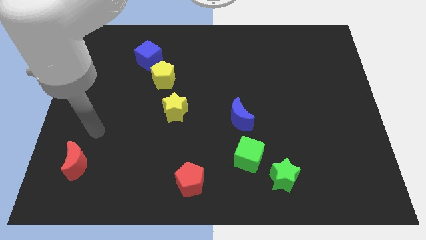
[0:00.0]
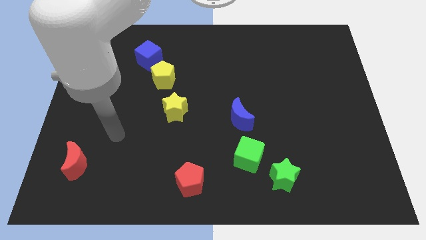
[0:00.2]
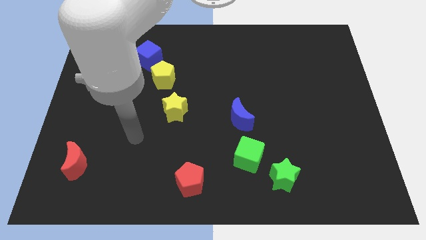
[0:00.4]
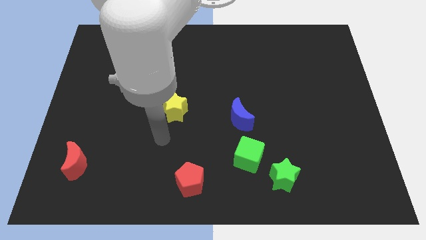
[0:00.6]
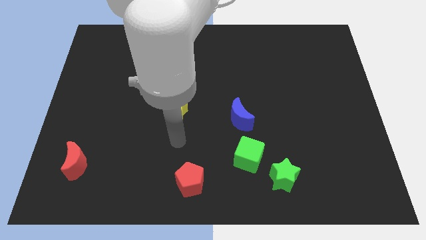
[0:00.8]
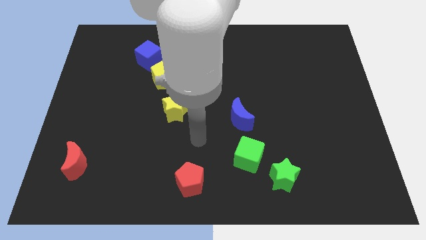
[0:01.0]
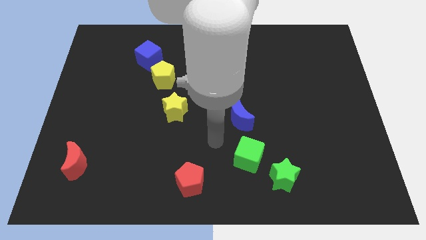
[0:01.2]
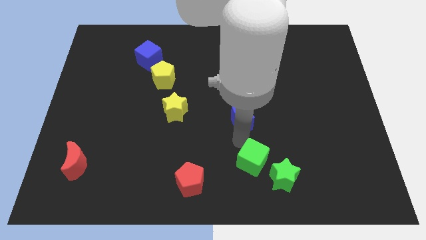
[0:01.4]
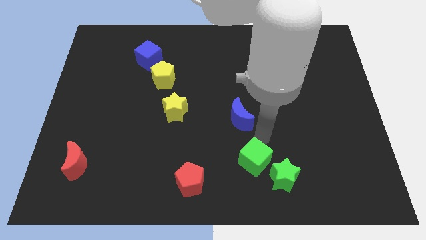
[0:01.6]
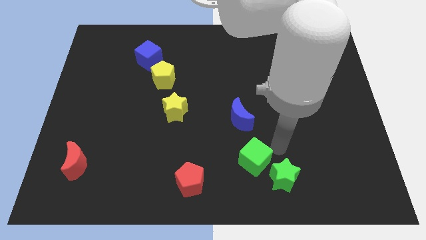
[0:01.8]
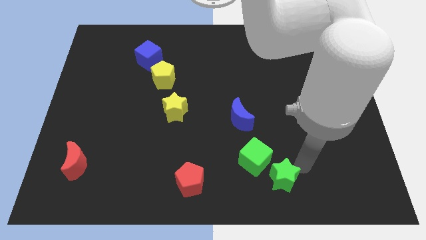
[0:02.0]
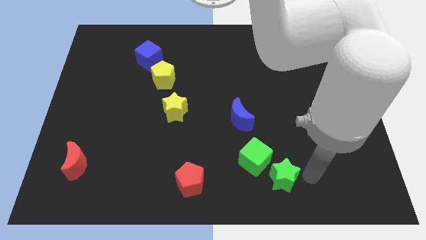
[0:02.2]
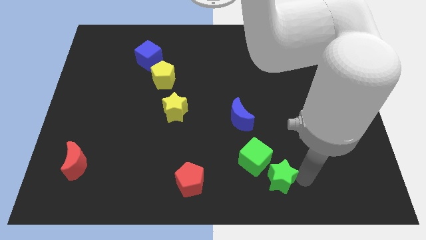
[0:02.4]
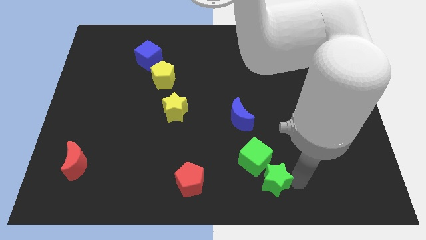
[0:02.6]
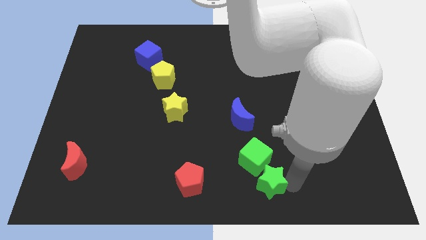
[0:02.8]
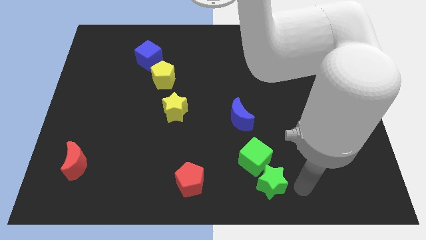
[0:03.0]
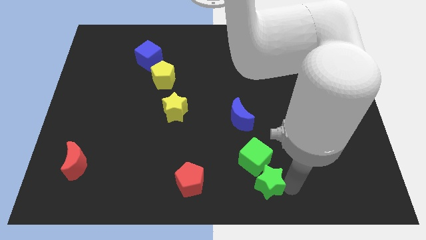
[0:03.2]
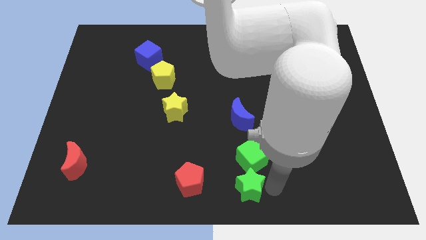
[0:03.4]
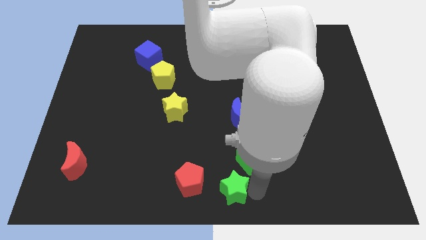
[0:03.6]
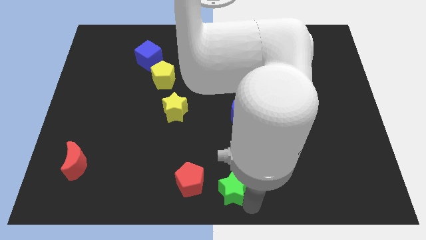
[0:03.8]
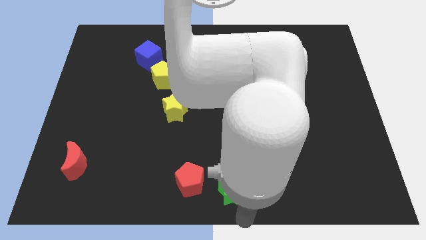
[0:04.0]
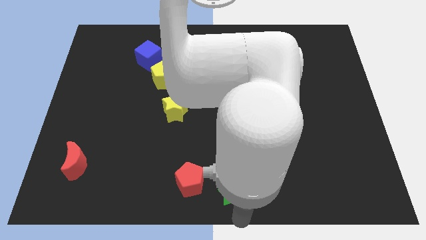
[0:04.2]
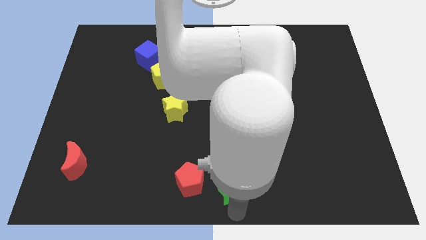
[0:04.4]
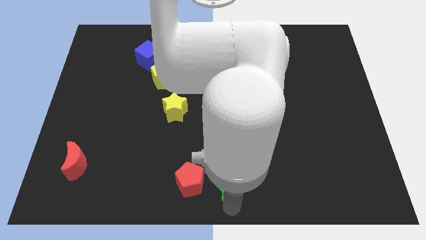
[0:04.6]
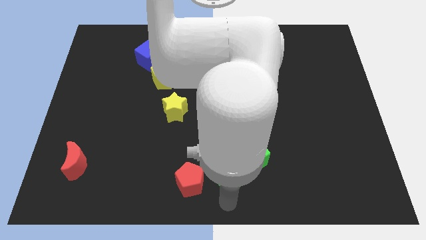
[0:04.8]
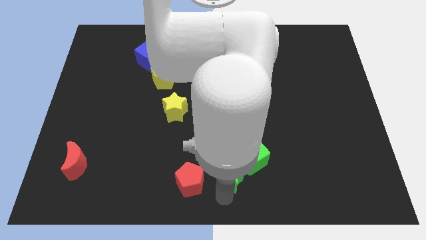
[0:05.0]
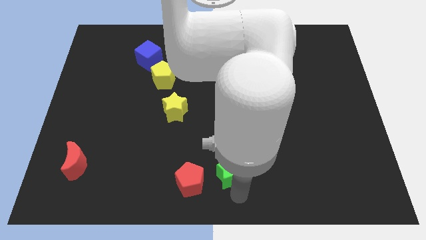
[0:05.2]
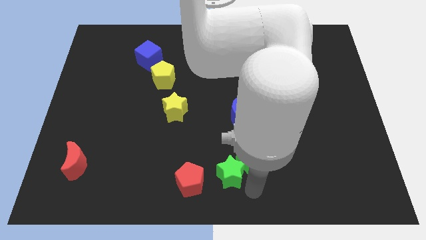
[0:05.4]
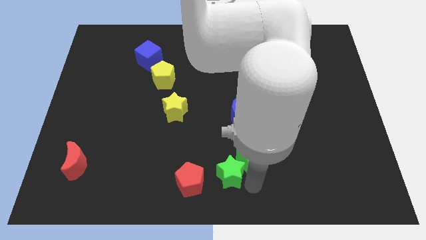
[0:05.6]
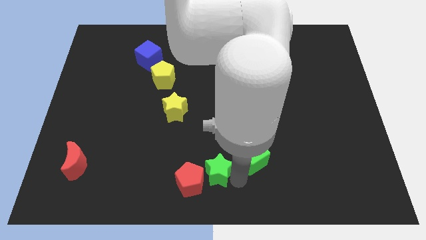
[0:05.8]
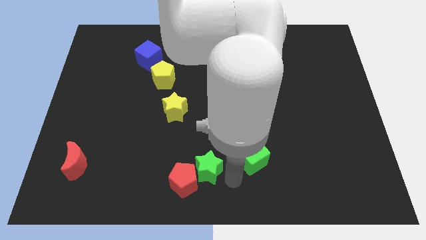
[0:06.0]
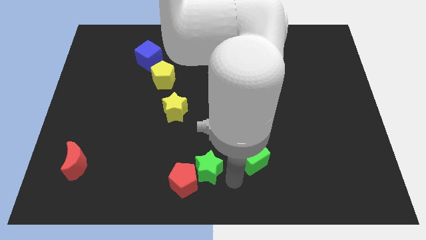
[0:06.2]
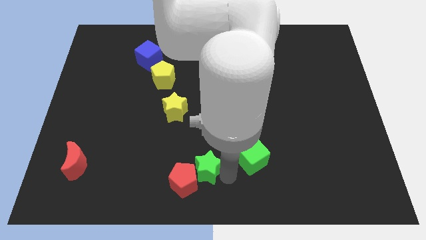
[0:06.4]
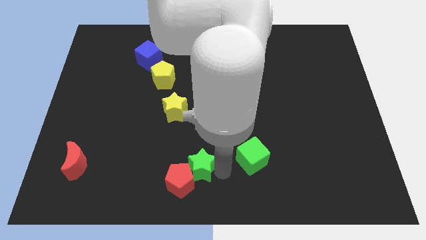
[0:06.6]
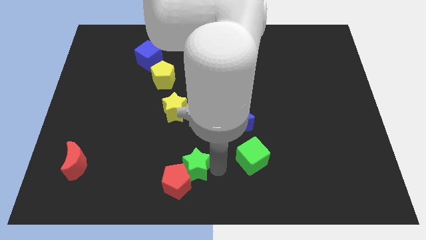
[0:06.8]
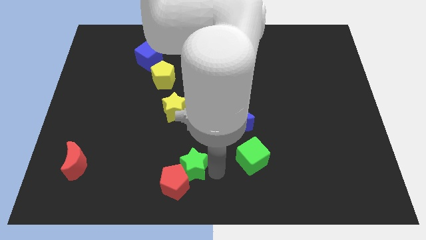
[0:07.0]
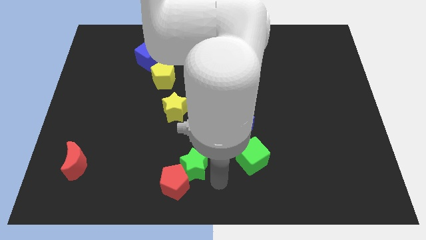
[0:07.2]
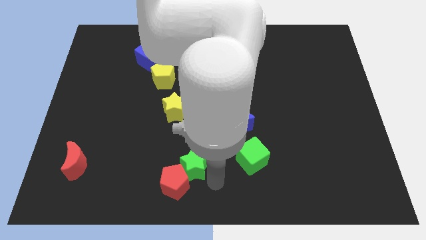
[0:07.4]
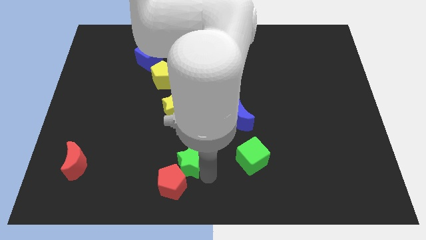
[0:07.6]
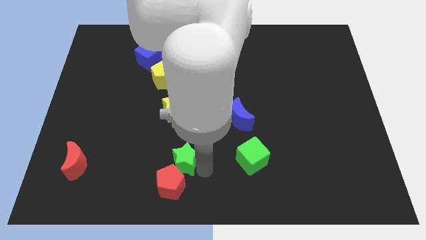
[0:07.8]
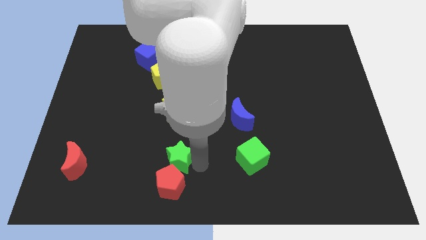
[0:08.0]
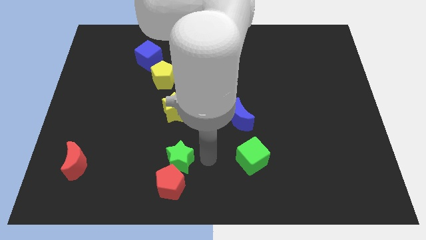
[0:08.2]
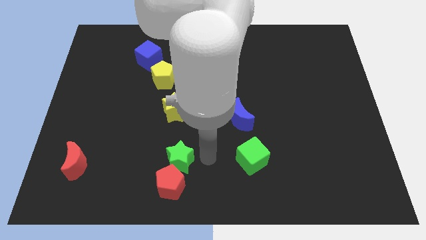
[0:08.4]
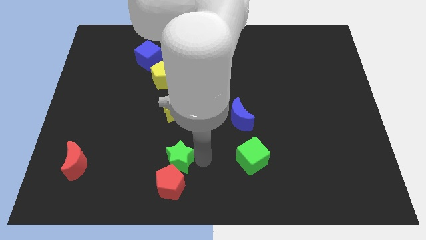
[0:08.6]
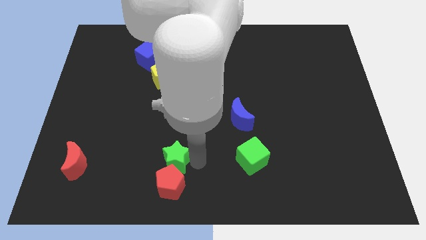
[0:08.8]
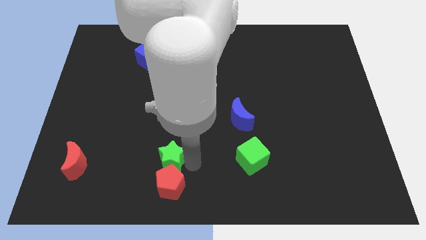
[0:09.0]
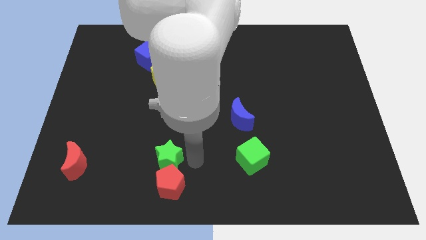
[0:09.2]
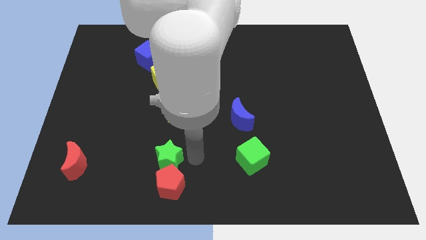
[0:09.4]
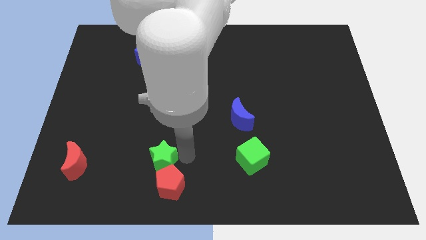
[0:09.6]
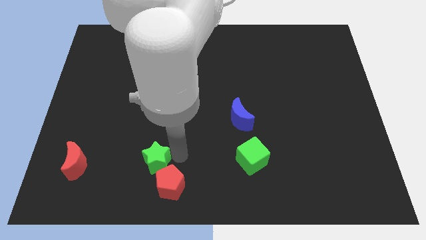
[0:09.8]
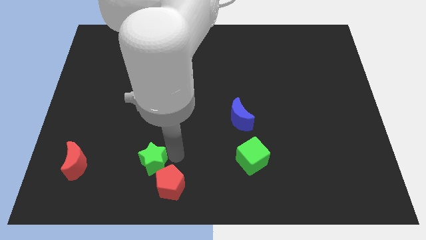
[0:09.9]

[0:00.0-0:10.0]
push the green star to the right side of the red moon

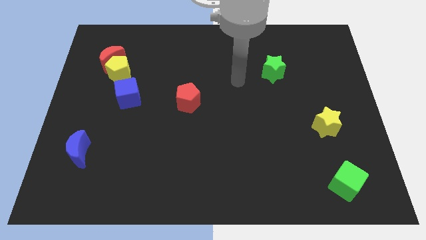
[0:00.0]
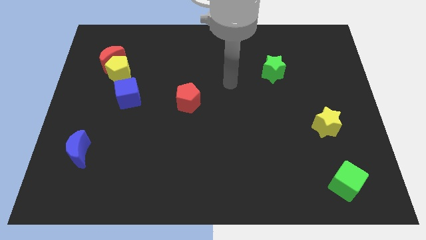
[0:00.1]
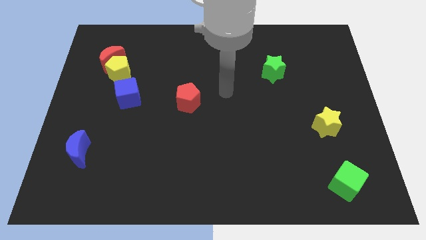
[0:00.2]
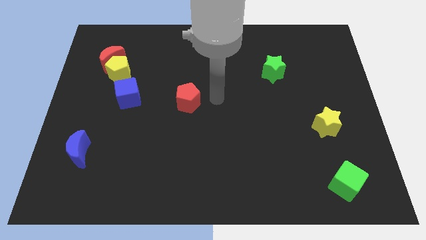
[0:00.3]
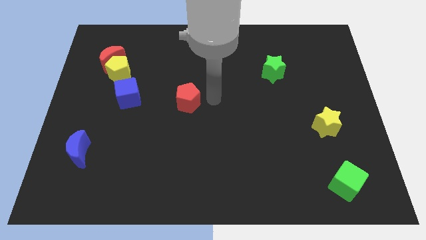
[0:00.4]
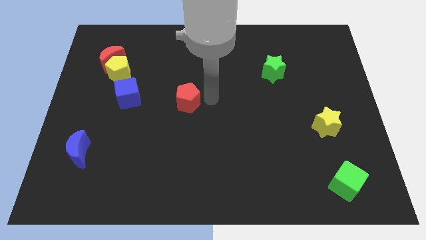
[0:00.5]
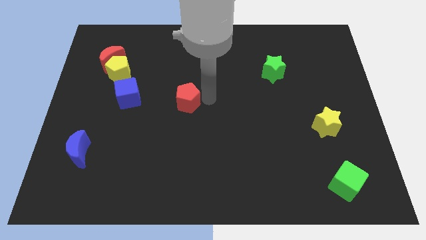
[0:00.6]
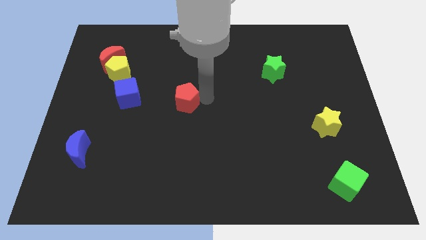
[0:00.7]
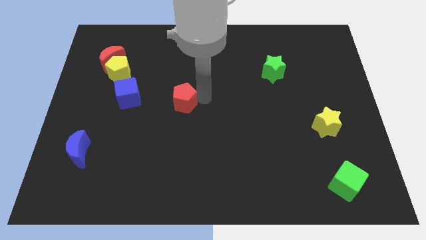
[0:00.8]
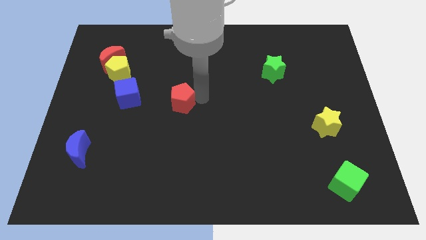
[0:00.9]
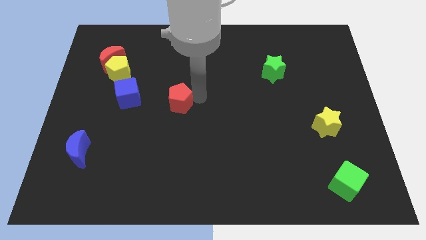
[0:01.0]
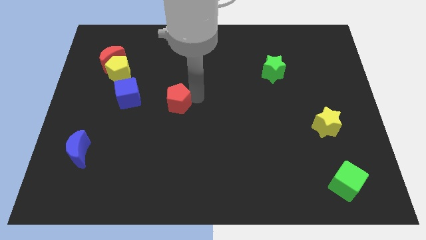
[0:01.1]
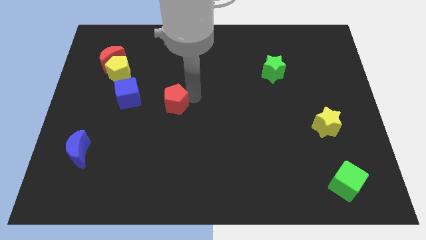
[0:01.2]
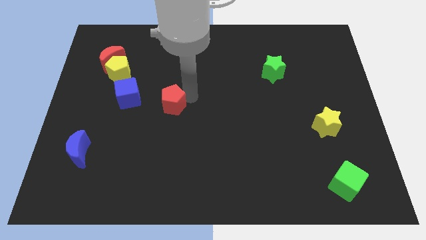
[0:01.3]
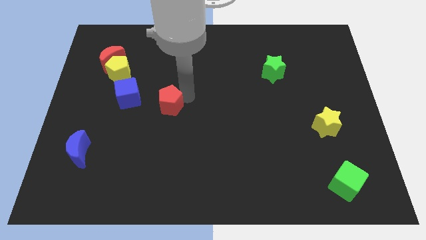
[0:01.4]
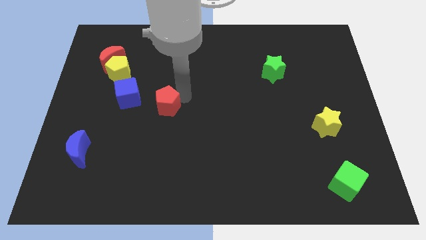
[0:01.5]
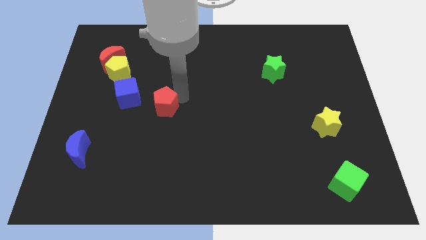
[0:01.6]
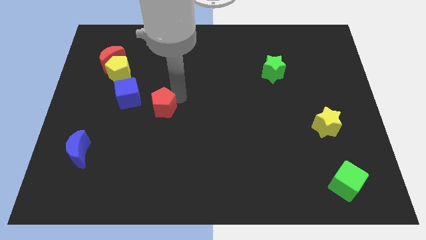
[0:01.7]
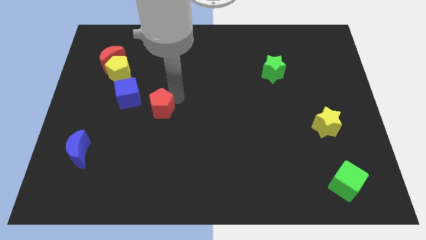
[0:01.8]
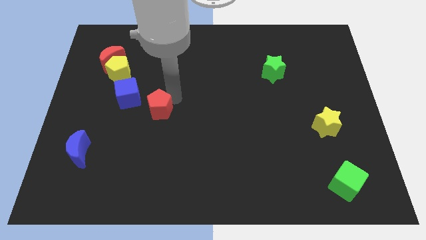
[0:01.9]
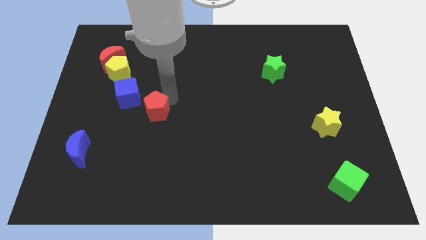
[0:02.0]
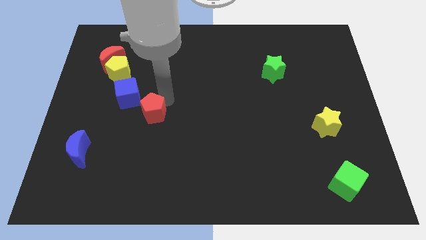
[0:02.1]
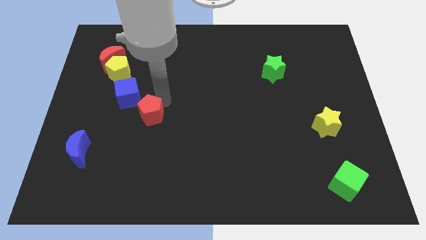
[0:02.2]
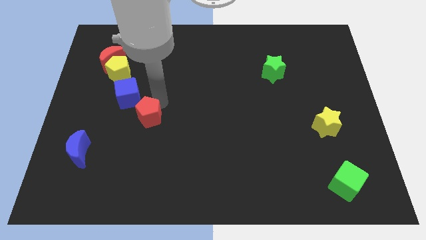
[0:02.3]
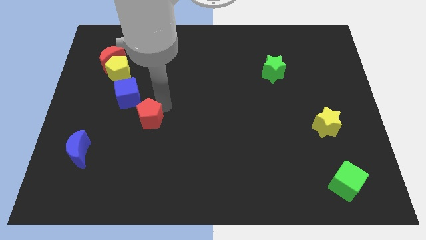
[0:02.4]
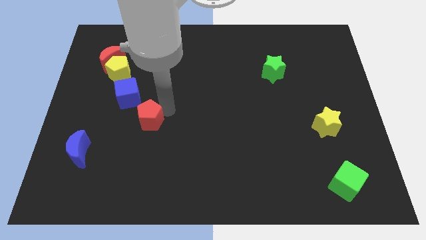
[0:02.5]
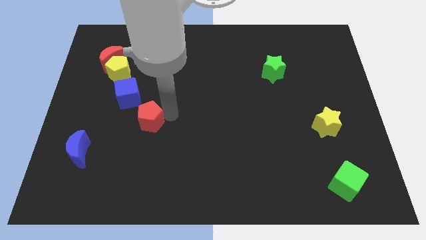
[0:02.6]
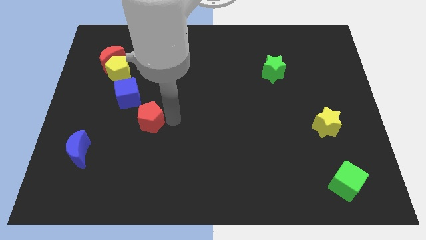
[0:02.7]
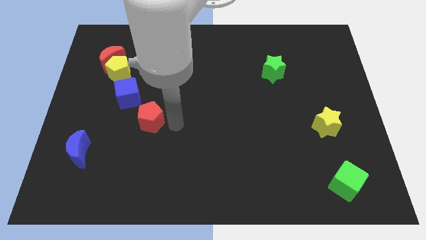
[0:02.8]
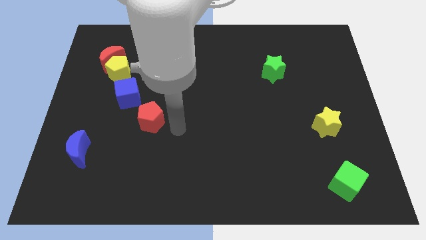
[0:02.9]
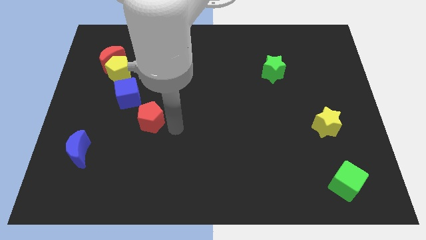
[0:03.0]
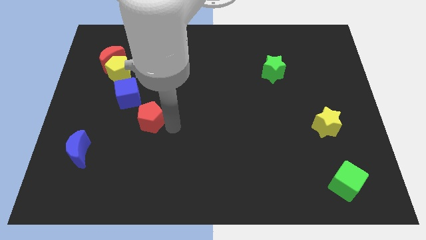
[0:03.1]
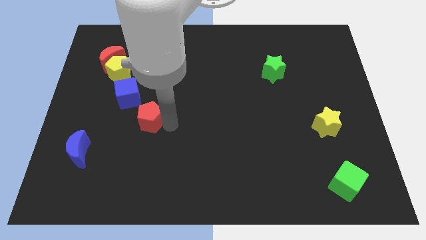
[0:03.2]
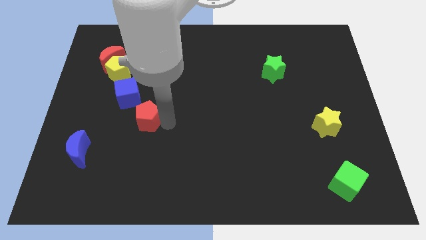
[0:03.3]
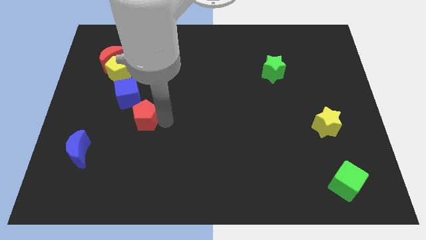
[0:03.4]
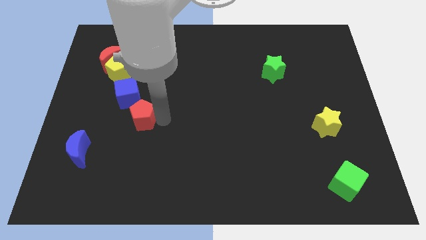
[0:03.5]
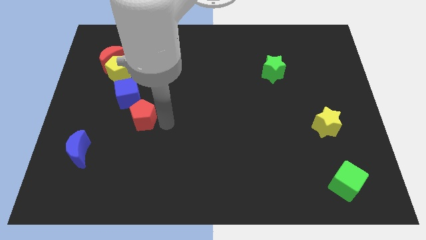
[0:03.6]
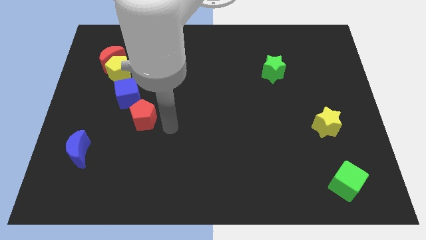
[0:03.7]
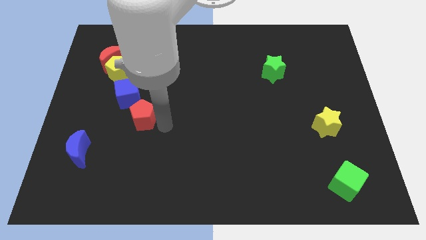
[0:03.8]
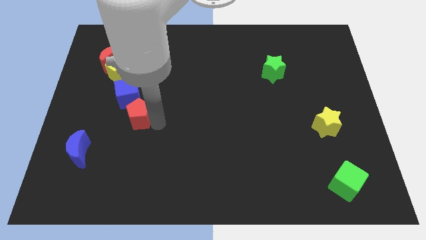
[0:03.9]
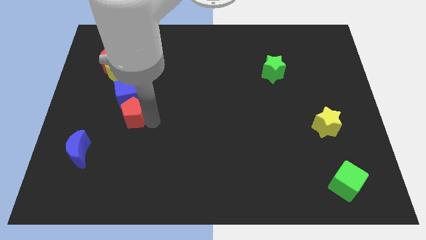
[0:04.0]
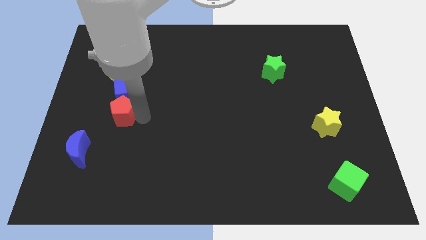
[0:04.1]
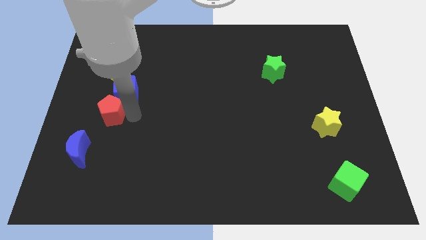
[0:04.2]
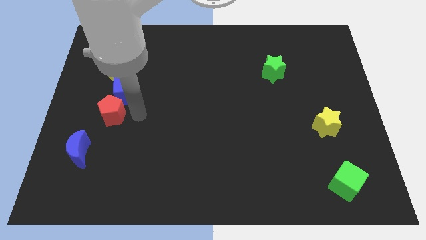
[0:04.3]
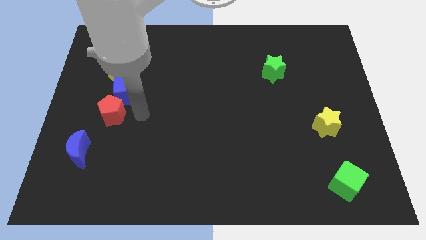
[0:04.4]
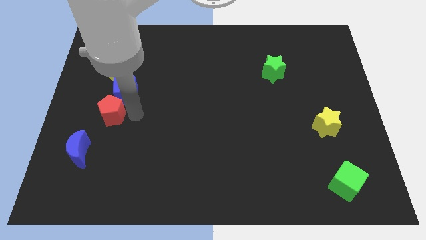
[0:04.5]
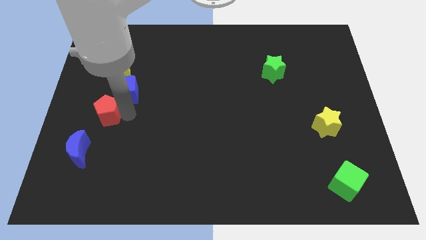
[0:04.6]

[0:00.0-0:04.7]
push the red pentagon to the top side of the blue moon
